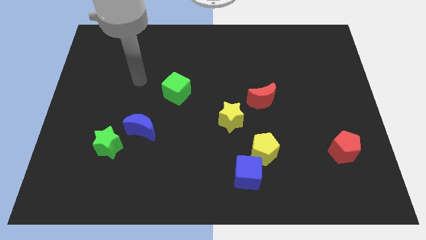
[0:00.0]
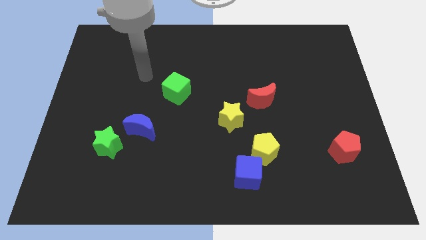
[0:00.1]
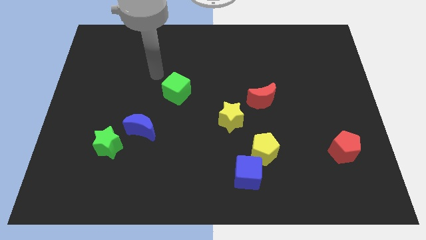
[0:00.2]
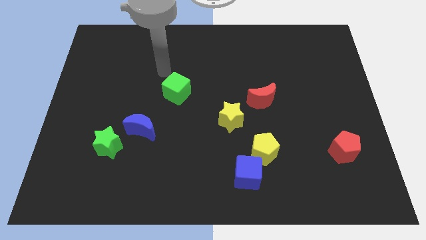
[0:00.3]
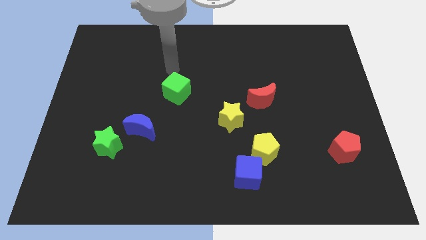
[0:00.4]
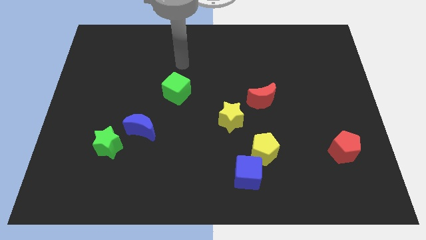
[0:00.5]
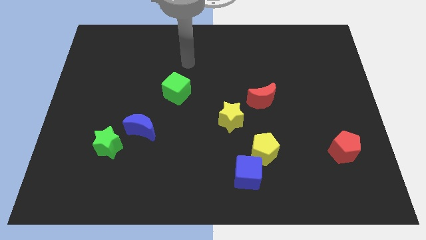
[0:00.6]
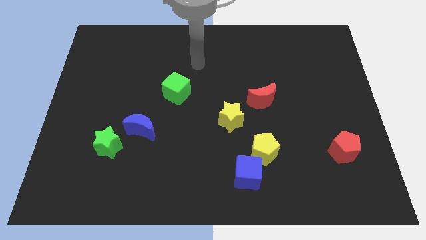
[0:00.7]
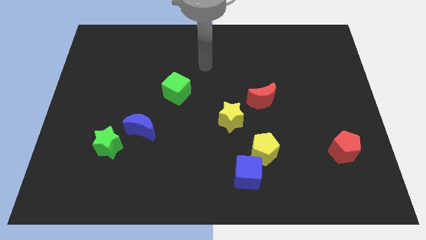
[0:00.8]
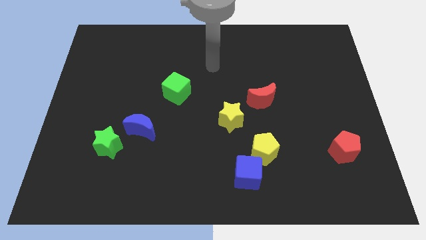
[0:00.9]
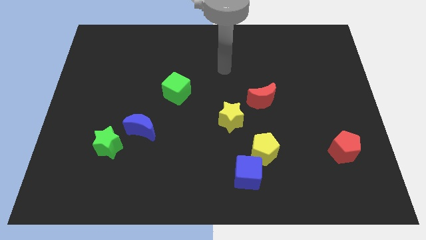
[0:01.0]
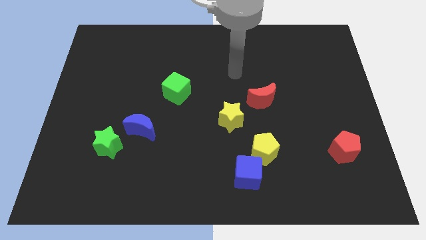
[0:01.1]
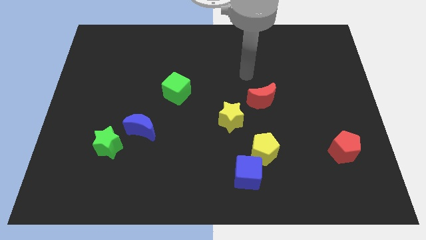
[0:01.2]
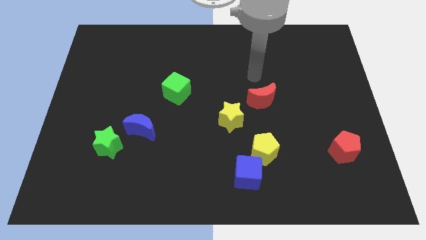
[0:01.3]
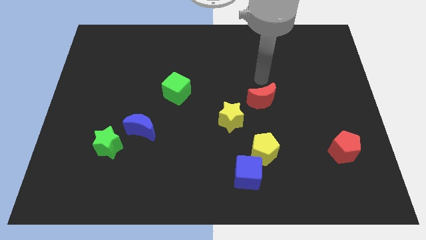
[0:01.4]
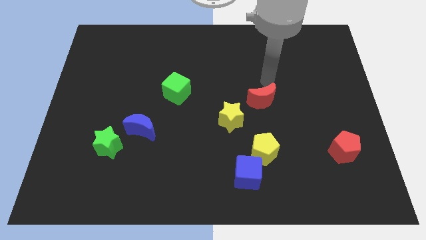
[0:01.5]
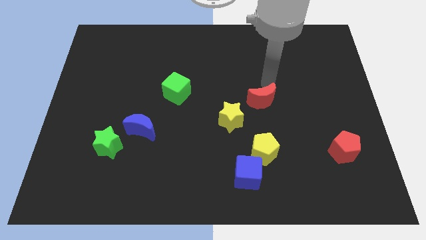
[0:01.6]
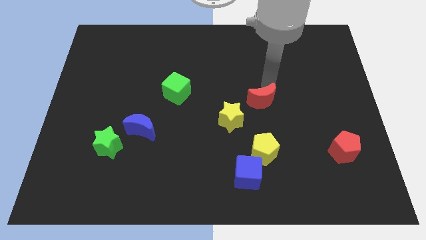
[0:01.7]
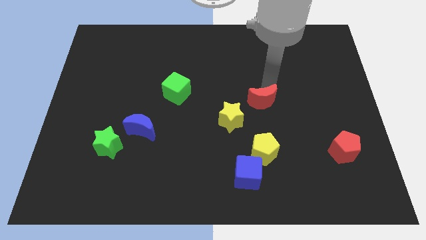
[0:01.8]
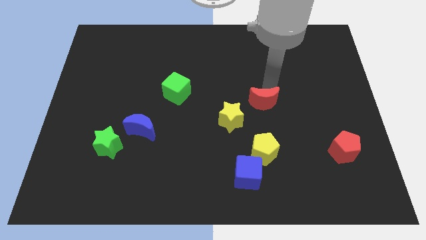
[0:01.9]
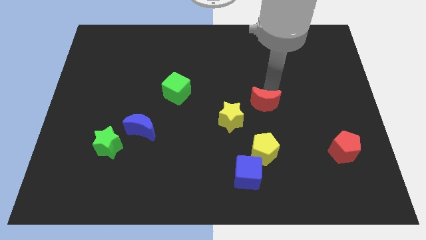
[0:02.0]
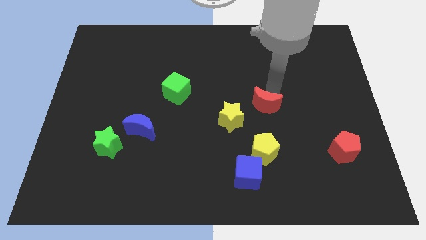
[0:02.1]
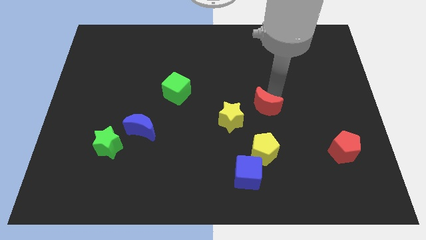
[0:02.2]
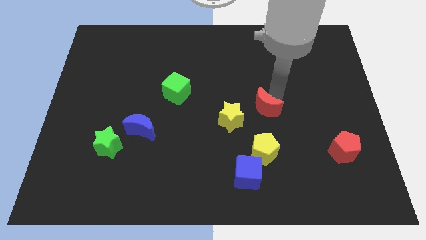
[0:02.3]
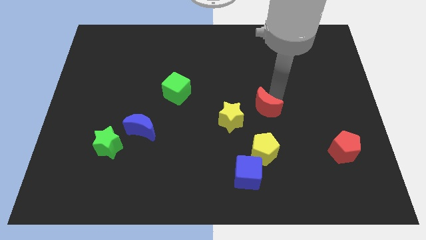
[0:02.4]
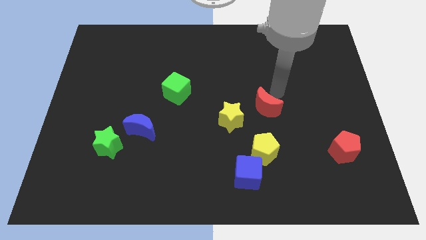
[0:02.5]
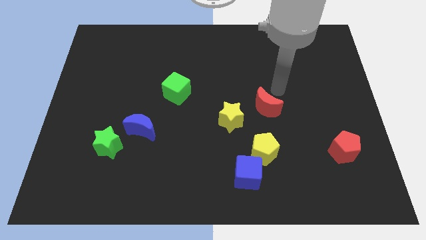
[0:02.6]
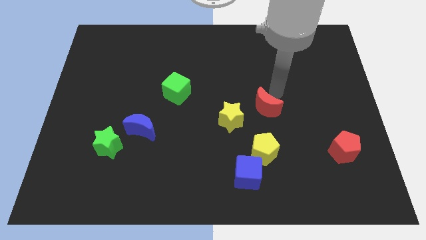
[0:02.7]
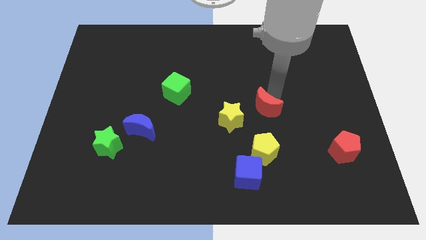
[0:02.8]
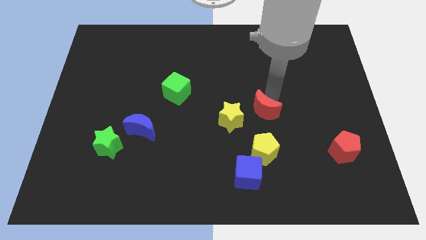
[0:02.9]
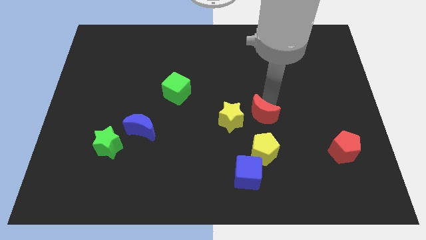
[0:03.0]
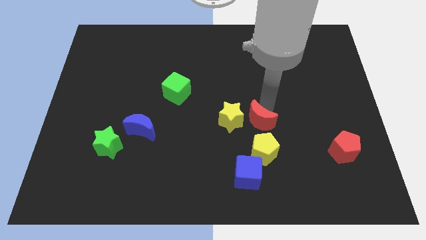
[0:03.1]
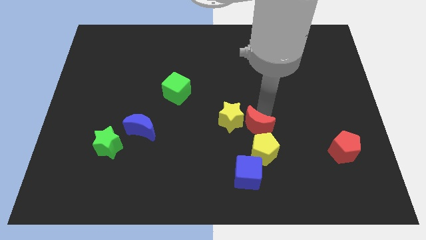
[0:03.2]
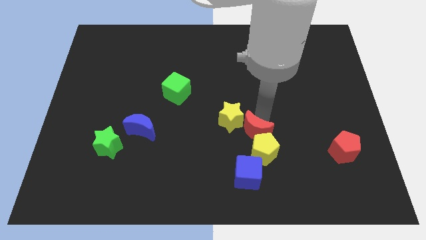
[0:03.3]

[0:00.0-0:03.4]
slide the red moon down and left diagonally a little bit

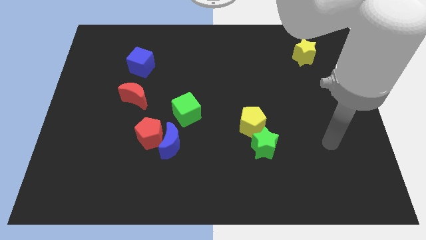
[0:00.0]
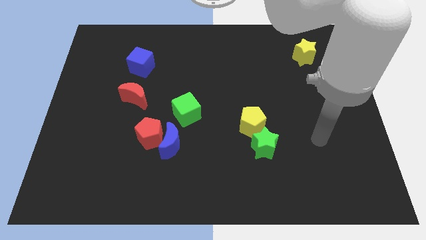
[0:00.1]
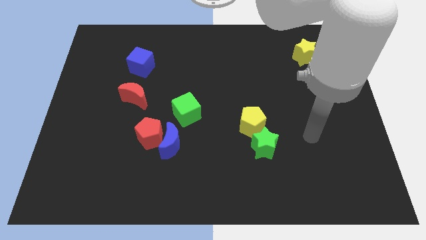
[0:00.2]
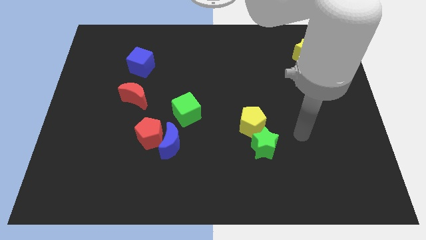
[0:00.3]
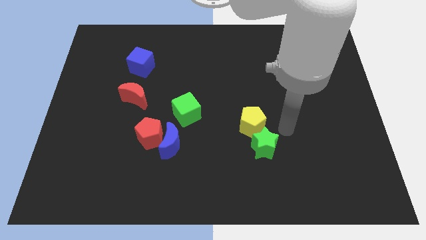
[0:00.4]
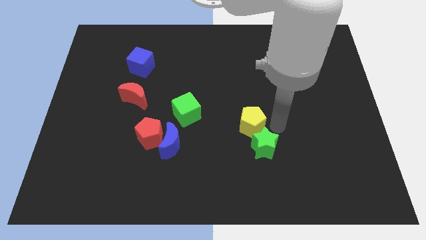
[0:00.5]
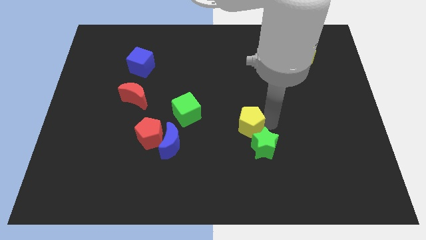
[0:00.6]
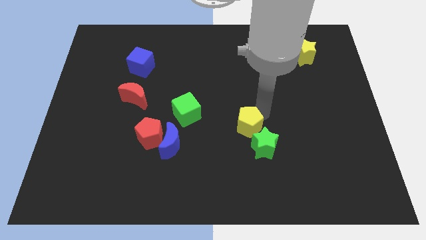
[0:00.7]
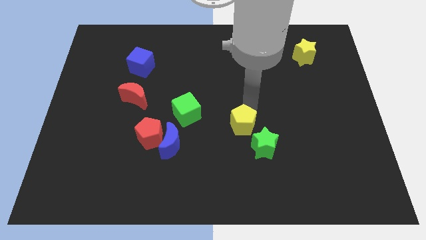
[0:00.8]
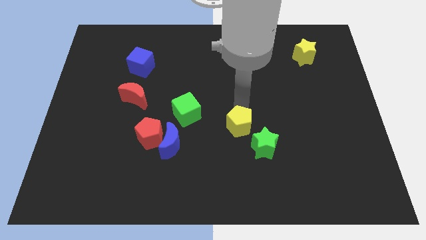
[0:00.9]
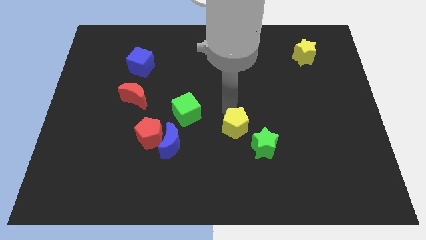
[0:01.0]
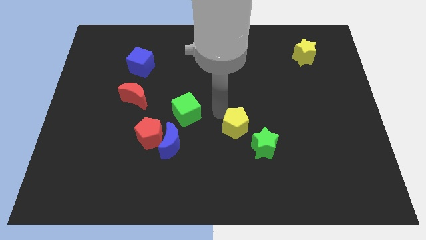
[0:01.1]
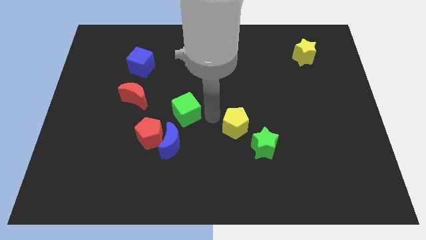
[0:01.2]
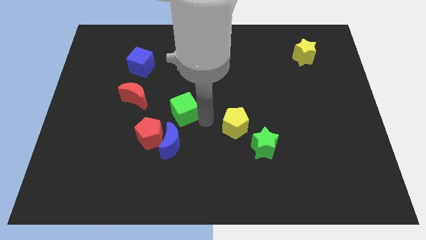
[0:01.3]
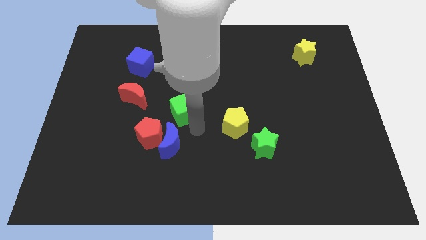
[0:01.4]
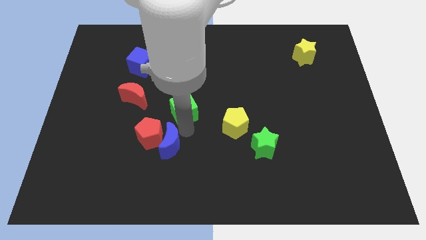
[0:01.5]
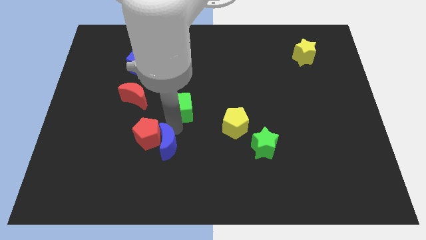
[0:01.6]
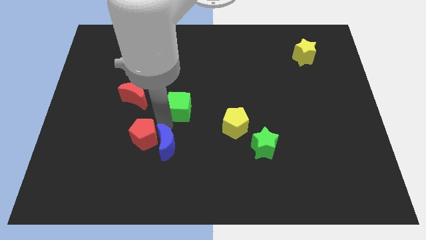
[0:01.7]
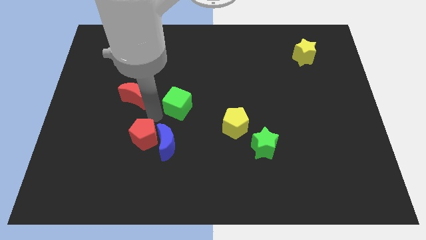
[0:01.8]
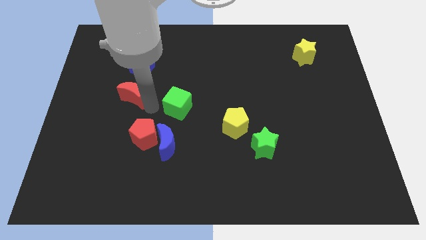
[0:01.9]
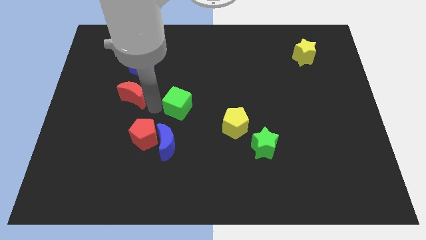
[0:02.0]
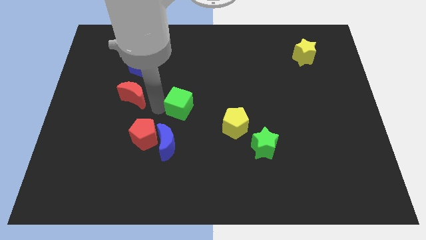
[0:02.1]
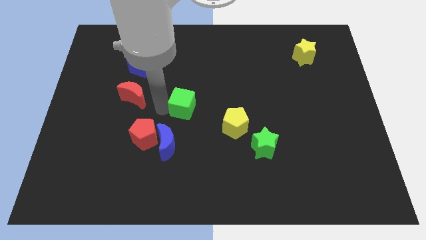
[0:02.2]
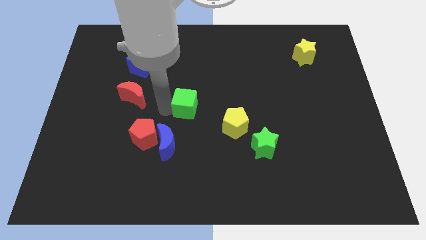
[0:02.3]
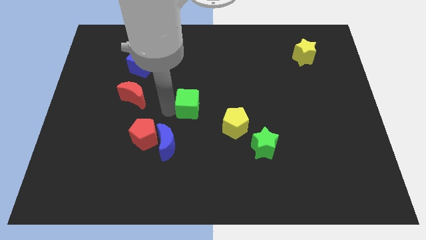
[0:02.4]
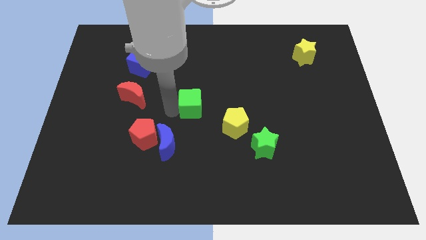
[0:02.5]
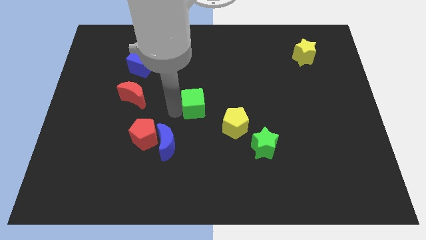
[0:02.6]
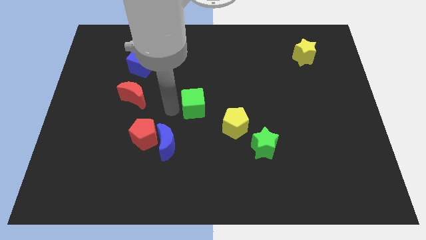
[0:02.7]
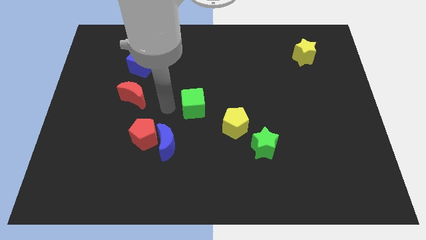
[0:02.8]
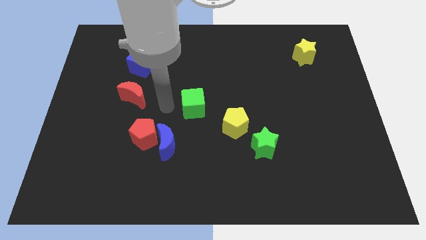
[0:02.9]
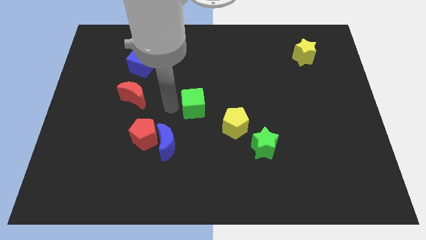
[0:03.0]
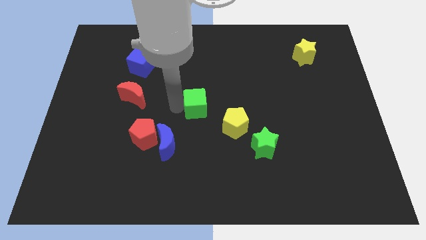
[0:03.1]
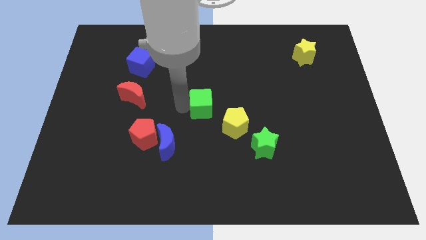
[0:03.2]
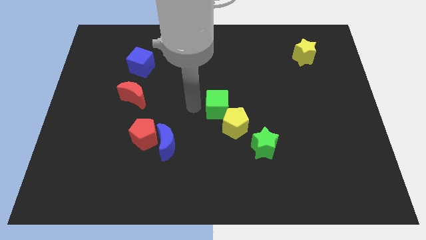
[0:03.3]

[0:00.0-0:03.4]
slide the green cube right somewhat

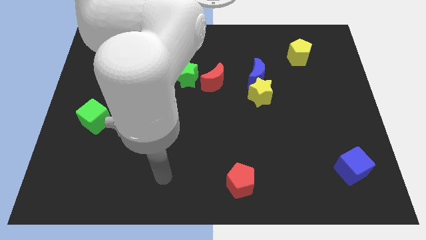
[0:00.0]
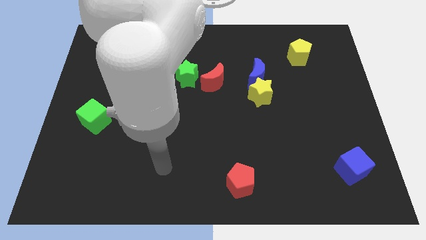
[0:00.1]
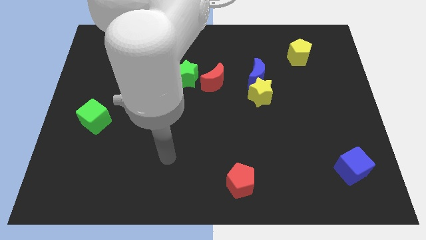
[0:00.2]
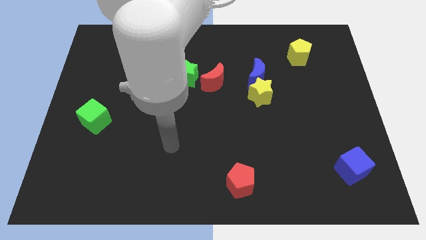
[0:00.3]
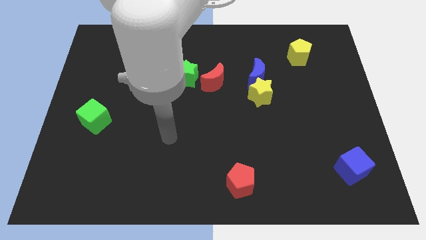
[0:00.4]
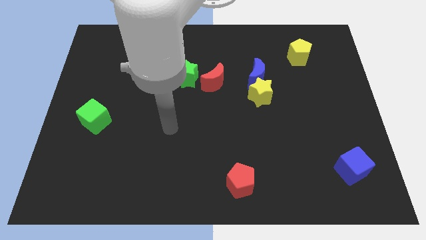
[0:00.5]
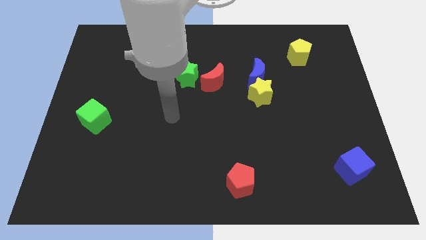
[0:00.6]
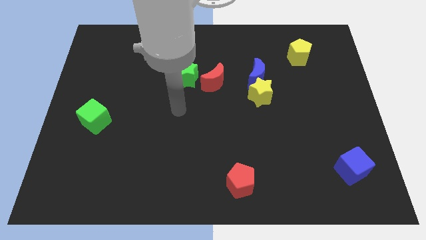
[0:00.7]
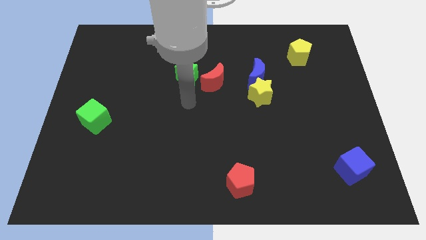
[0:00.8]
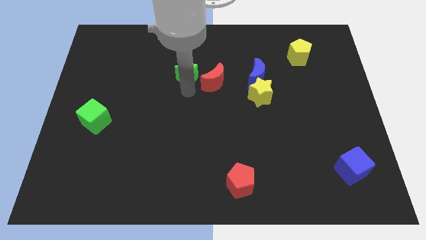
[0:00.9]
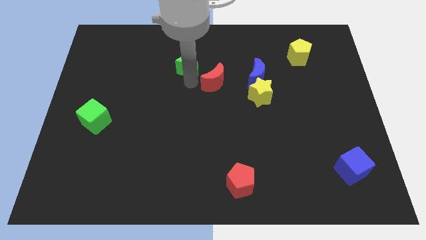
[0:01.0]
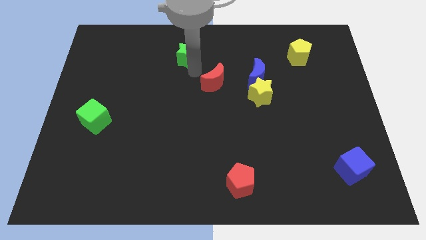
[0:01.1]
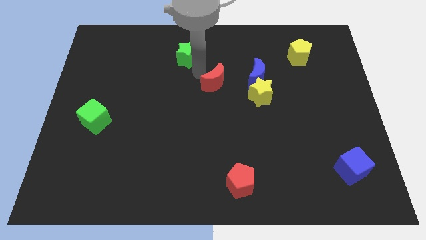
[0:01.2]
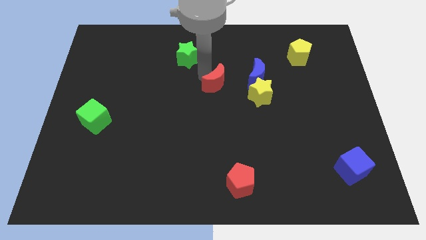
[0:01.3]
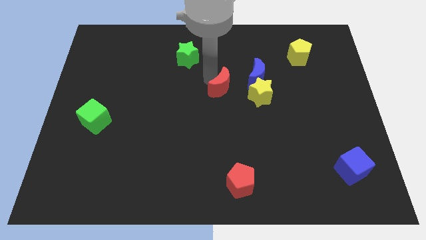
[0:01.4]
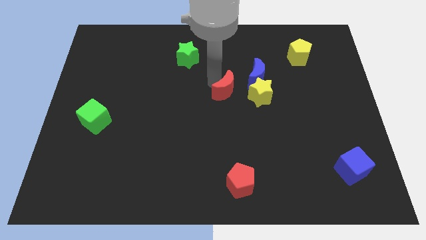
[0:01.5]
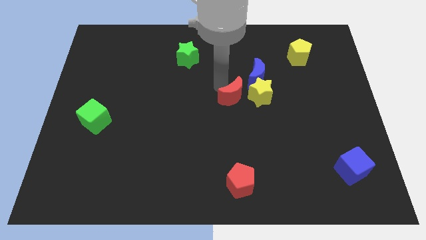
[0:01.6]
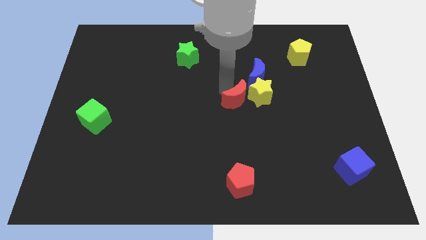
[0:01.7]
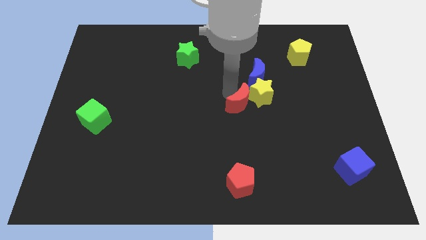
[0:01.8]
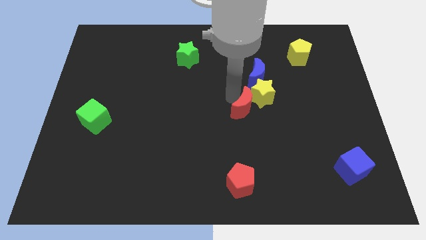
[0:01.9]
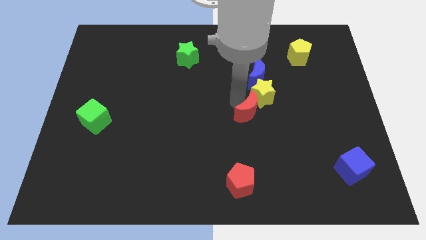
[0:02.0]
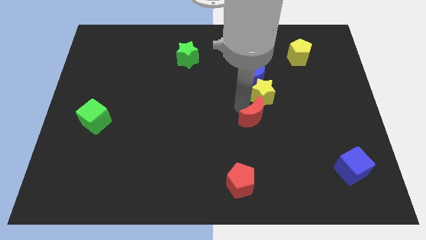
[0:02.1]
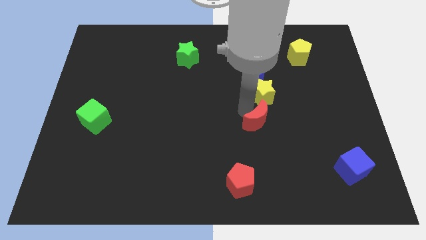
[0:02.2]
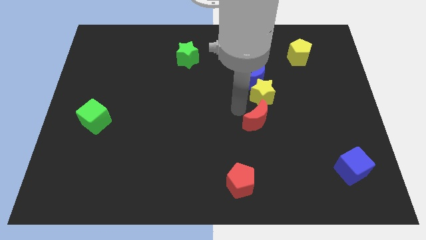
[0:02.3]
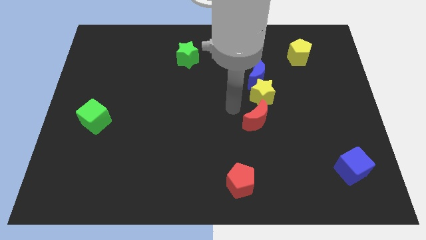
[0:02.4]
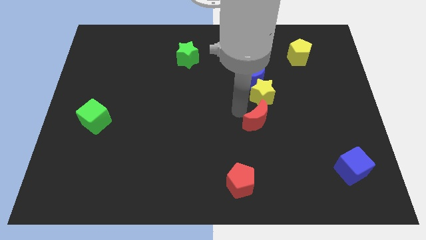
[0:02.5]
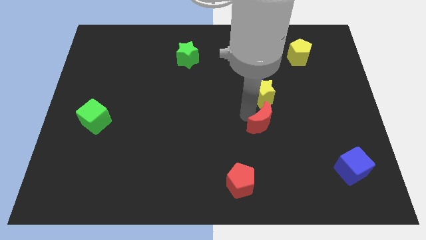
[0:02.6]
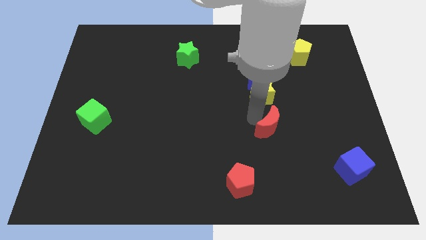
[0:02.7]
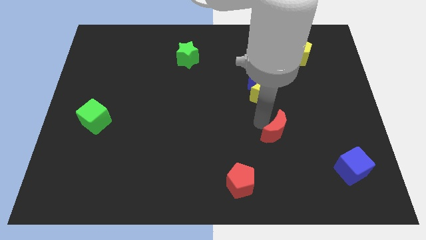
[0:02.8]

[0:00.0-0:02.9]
slide the red moon downwards and then right
